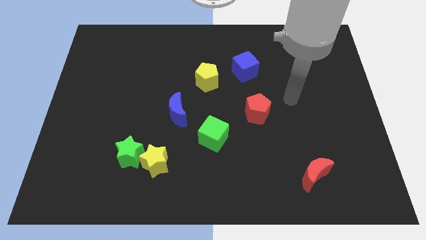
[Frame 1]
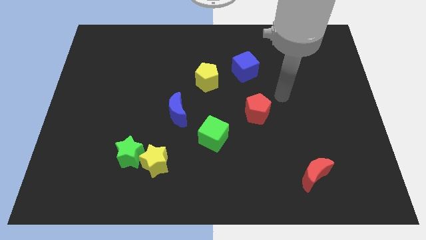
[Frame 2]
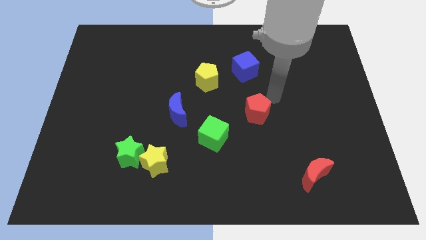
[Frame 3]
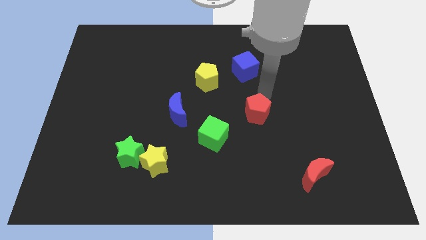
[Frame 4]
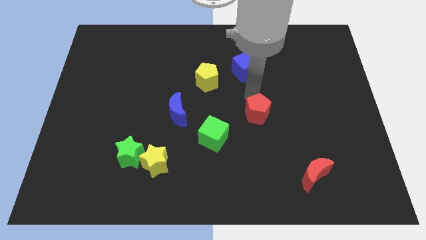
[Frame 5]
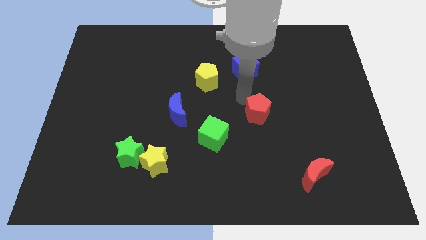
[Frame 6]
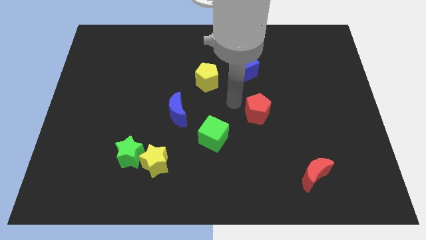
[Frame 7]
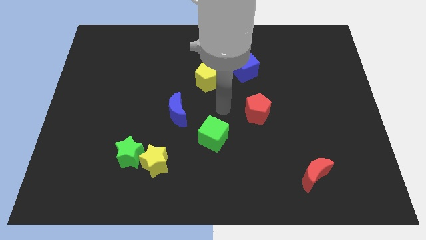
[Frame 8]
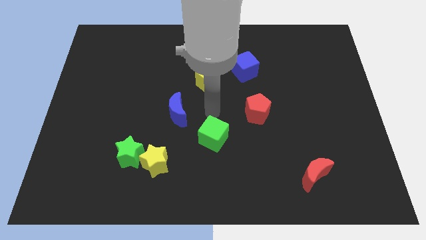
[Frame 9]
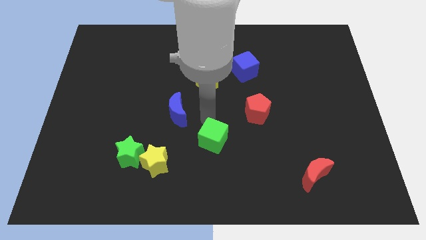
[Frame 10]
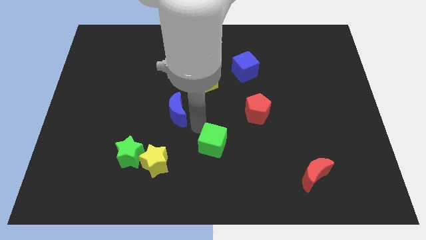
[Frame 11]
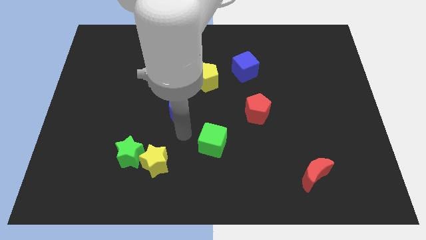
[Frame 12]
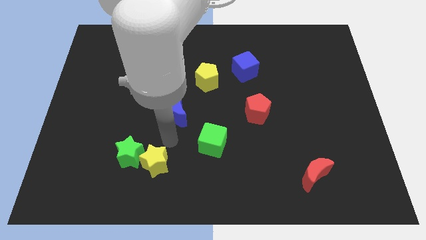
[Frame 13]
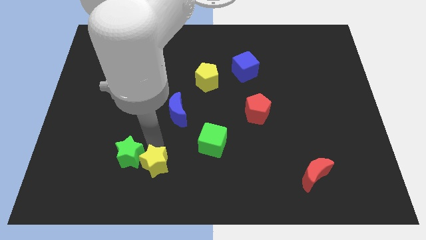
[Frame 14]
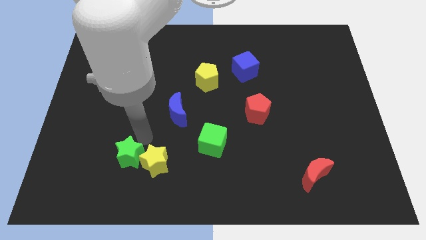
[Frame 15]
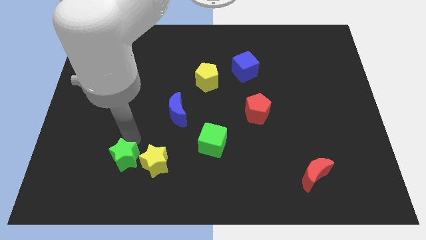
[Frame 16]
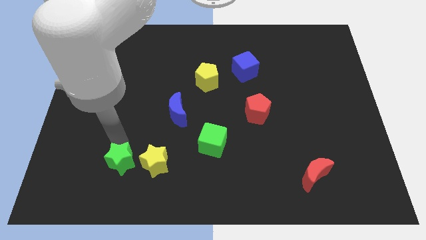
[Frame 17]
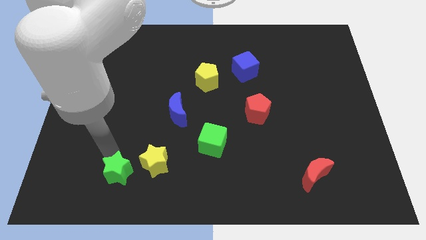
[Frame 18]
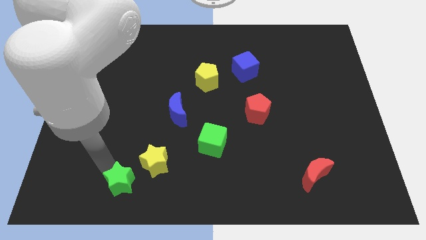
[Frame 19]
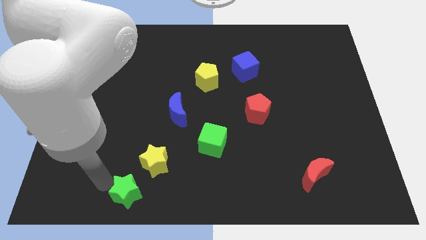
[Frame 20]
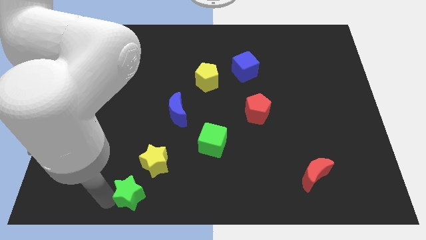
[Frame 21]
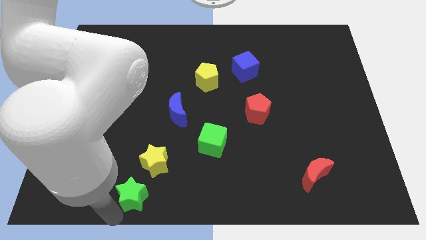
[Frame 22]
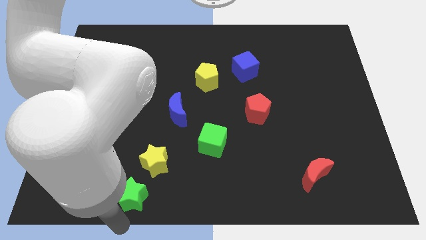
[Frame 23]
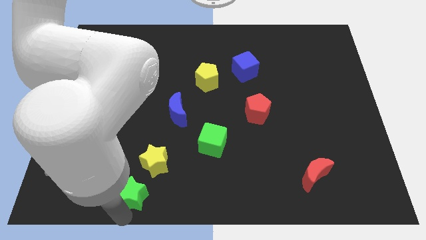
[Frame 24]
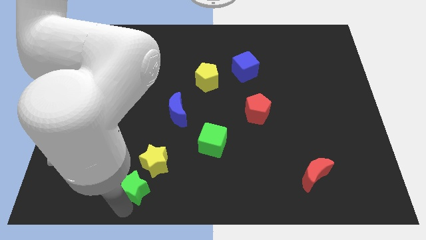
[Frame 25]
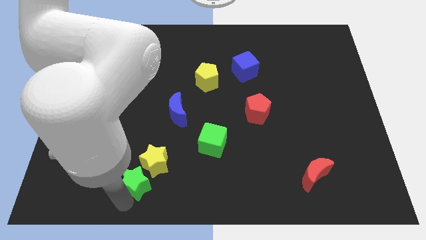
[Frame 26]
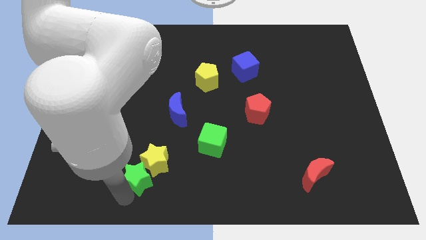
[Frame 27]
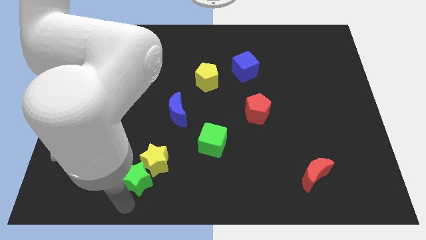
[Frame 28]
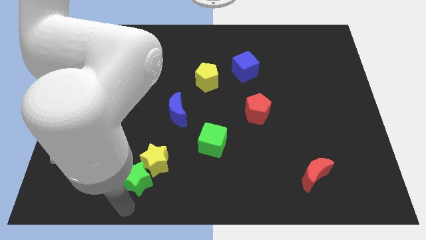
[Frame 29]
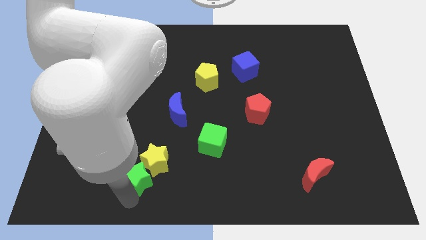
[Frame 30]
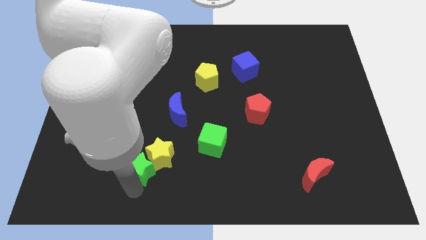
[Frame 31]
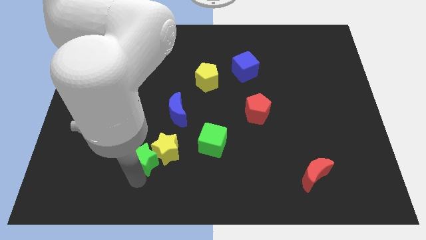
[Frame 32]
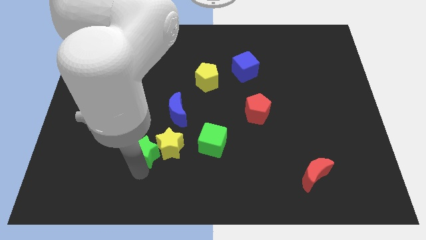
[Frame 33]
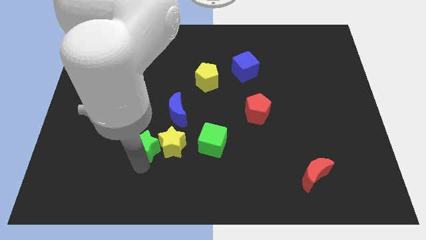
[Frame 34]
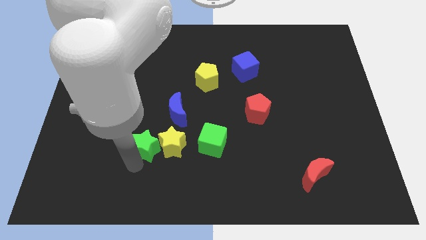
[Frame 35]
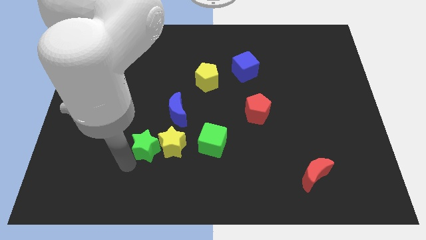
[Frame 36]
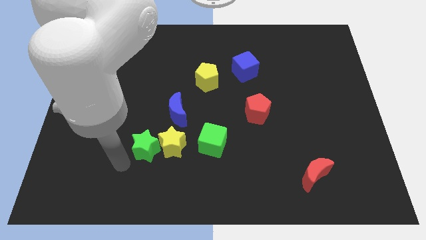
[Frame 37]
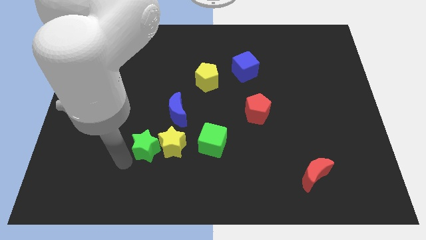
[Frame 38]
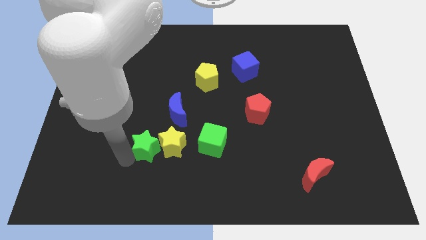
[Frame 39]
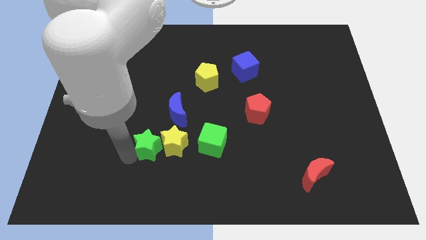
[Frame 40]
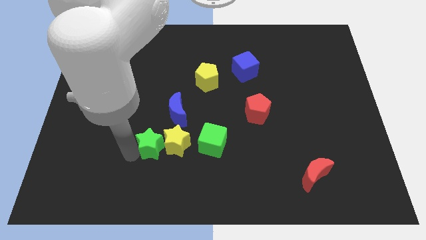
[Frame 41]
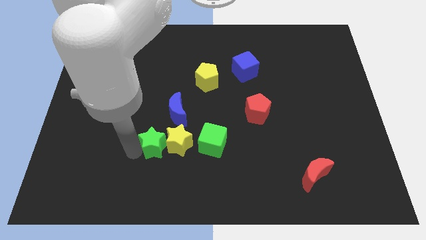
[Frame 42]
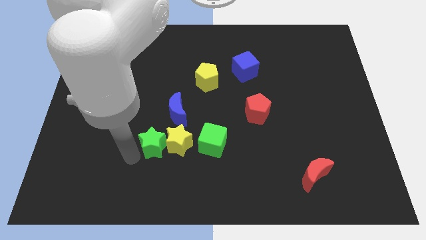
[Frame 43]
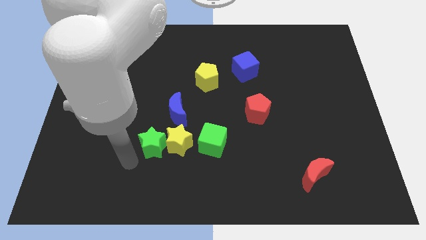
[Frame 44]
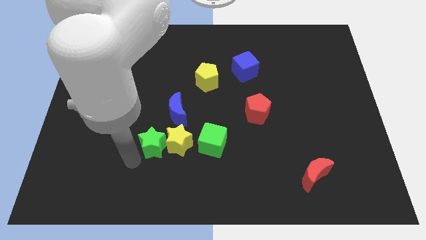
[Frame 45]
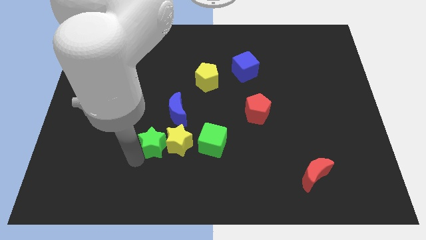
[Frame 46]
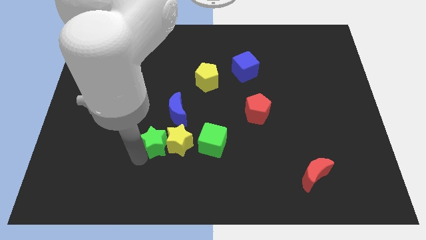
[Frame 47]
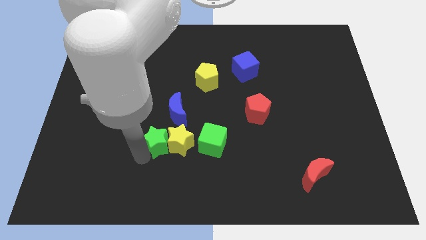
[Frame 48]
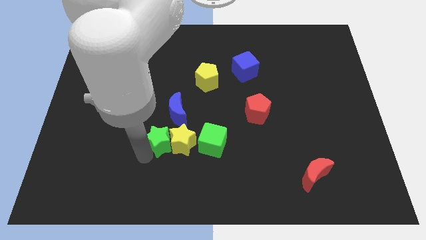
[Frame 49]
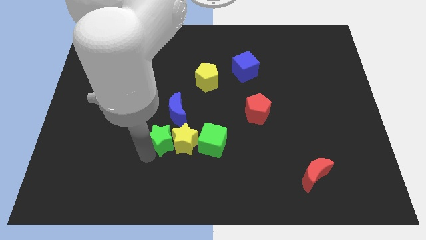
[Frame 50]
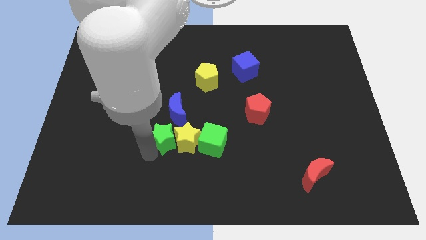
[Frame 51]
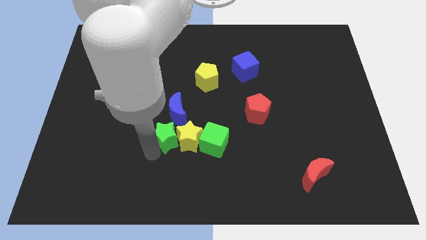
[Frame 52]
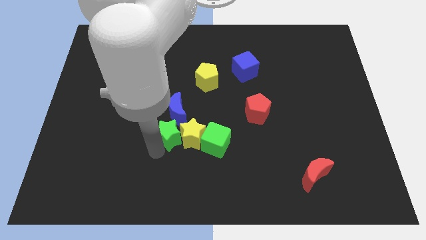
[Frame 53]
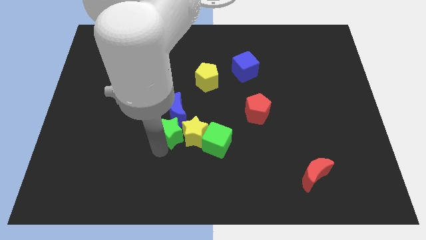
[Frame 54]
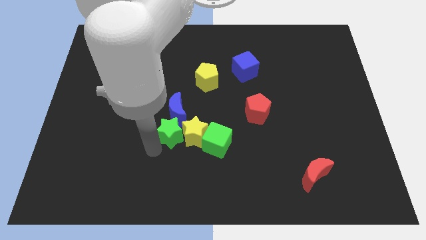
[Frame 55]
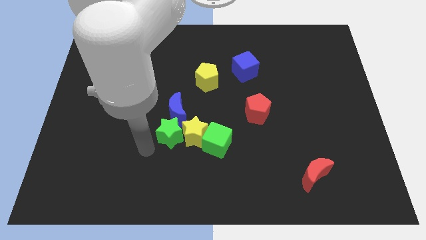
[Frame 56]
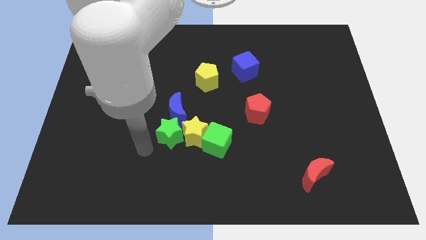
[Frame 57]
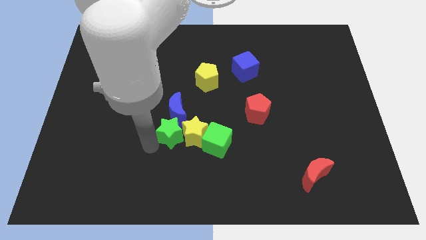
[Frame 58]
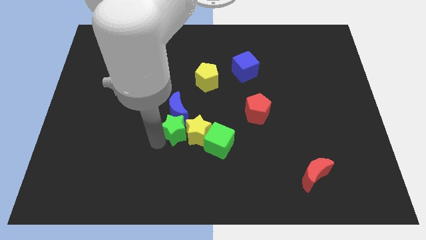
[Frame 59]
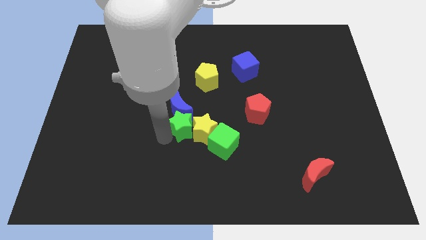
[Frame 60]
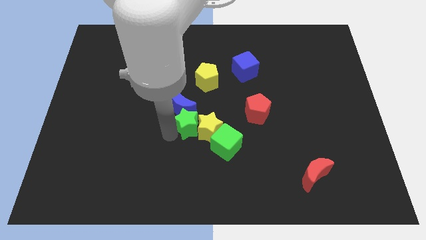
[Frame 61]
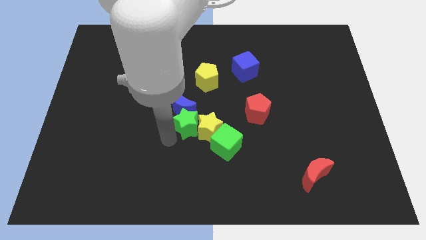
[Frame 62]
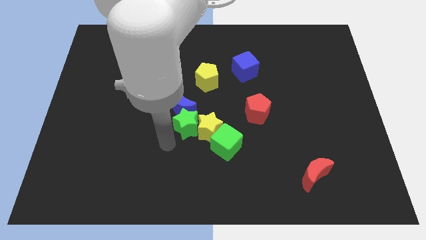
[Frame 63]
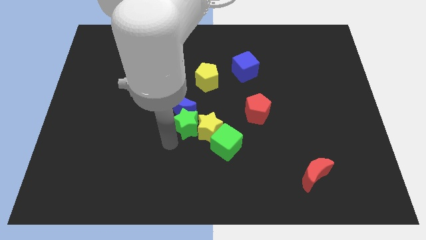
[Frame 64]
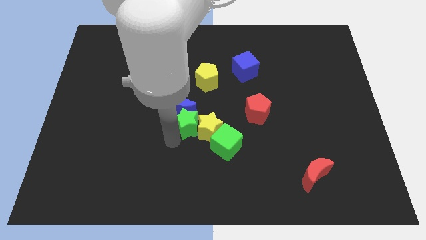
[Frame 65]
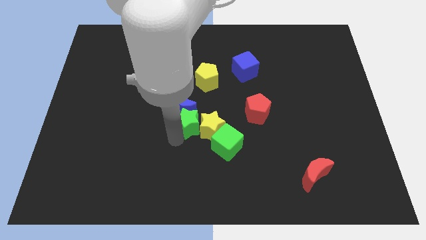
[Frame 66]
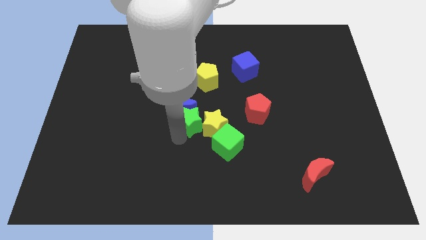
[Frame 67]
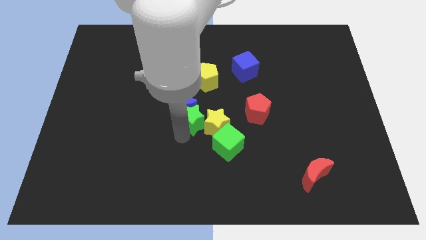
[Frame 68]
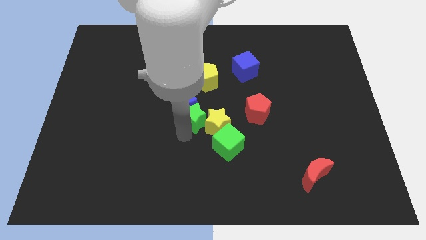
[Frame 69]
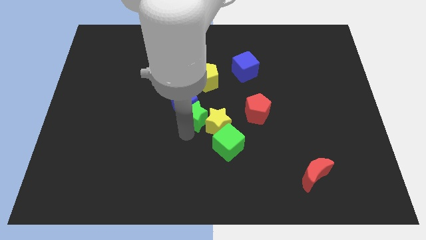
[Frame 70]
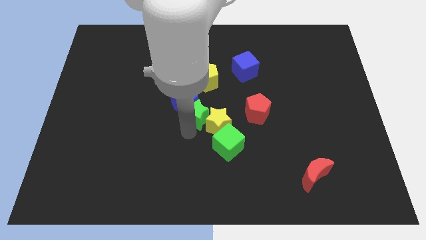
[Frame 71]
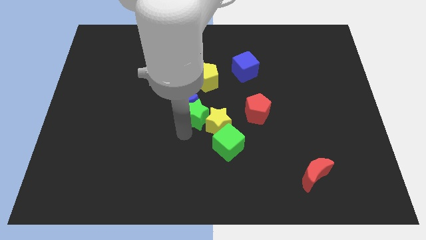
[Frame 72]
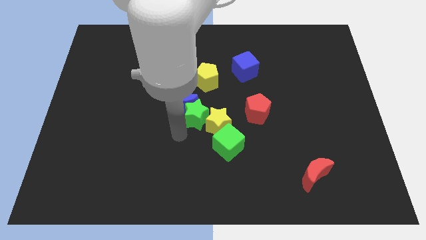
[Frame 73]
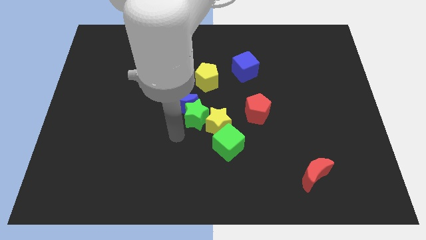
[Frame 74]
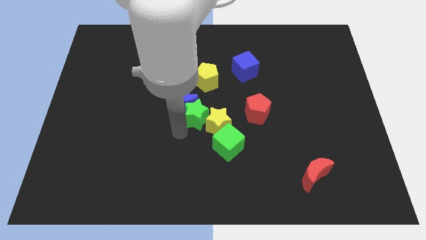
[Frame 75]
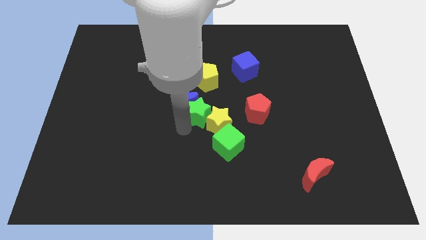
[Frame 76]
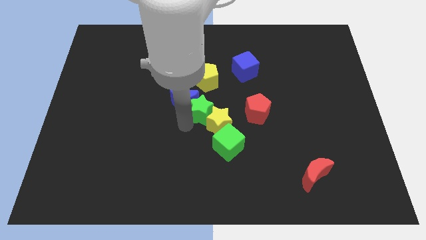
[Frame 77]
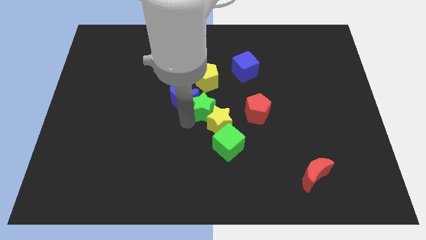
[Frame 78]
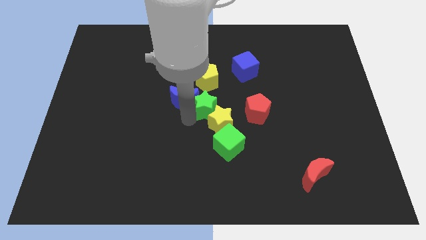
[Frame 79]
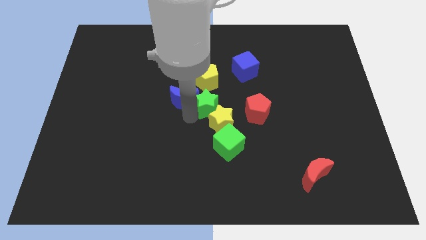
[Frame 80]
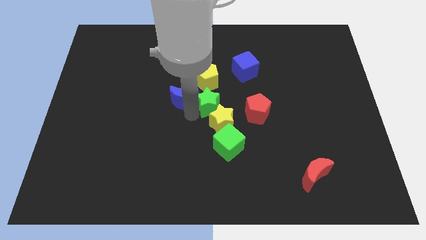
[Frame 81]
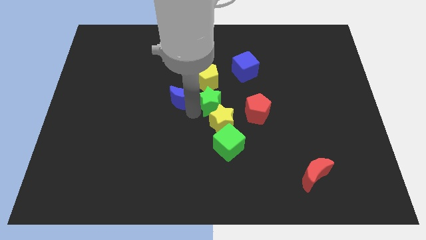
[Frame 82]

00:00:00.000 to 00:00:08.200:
move the green star diagonally down and to the right of the yellow pentagon
